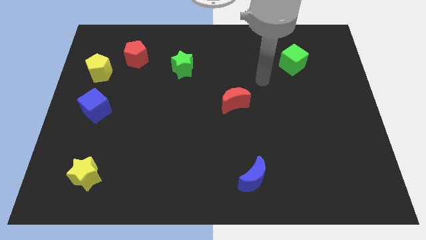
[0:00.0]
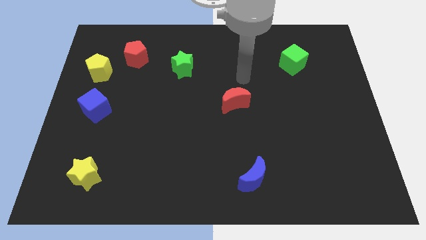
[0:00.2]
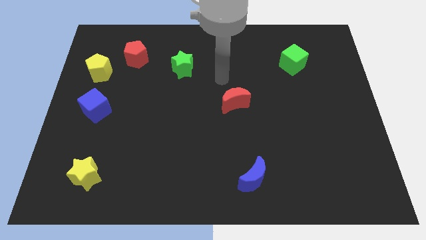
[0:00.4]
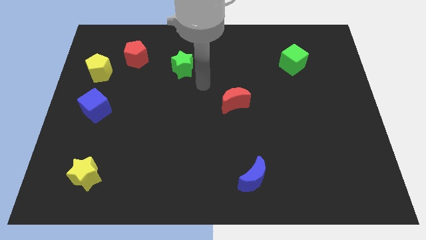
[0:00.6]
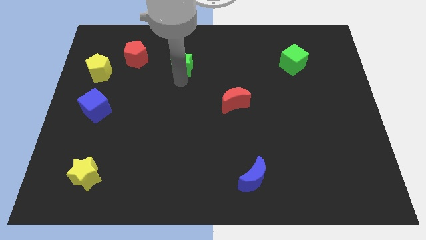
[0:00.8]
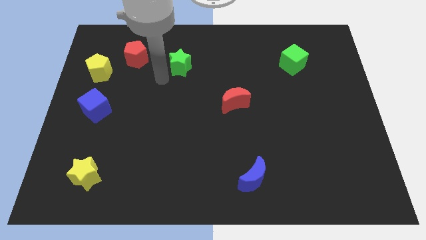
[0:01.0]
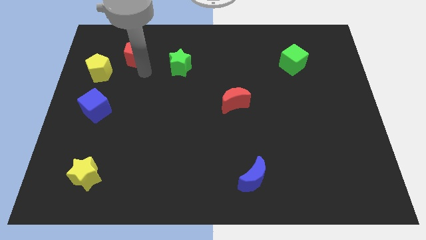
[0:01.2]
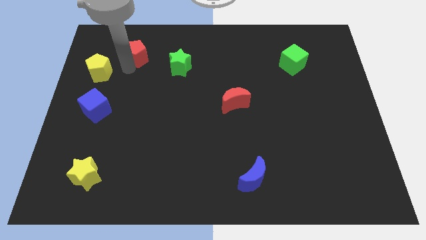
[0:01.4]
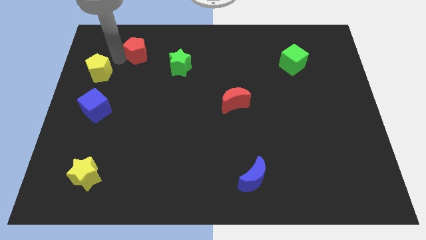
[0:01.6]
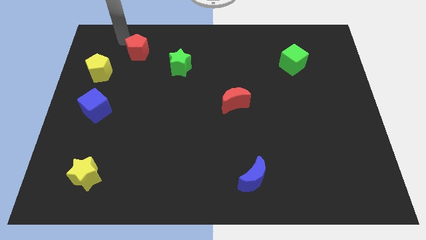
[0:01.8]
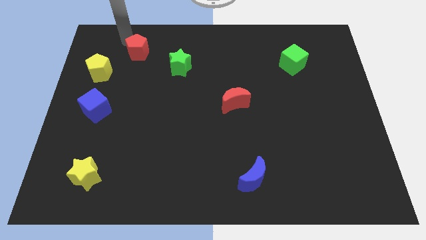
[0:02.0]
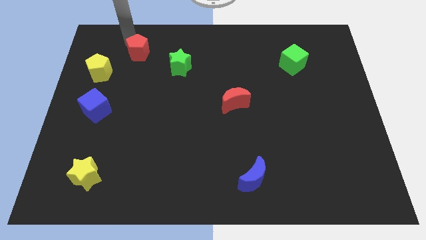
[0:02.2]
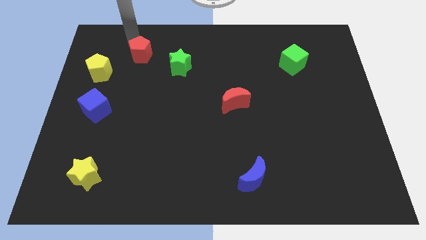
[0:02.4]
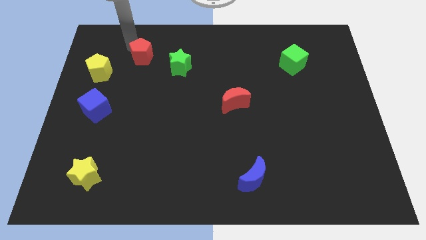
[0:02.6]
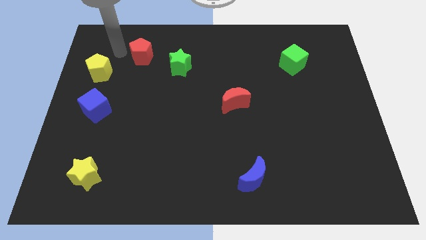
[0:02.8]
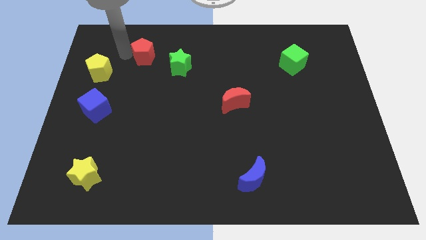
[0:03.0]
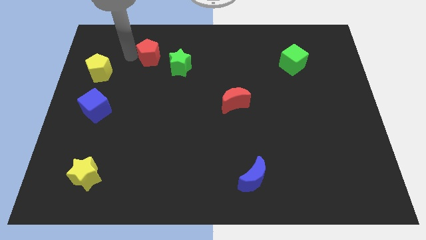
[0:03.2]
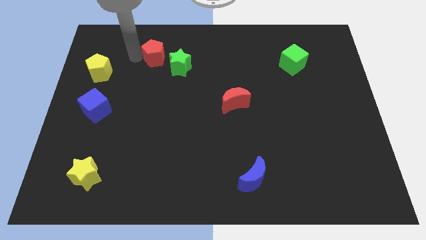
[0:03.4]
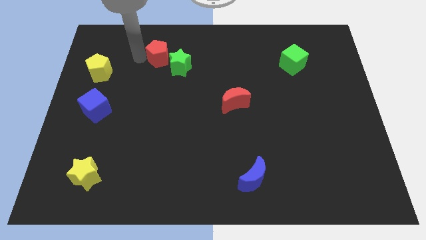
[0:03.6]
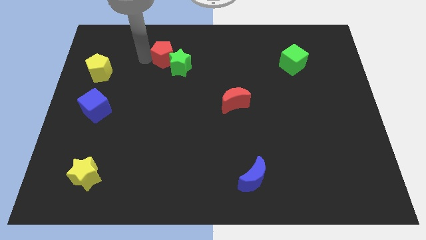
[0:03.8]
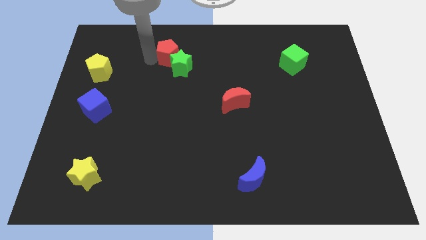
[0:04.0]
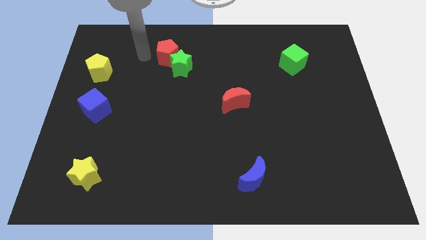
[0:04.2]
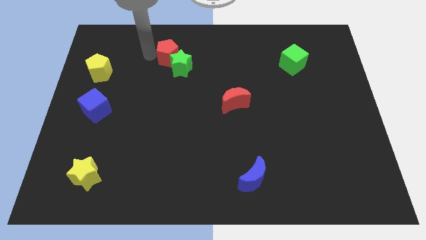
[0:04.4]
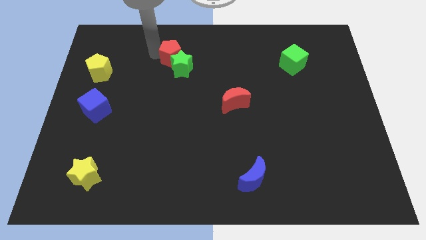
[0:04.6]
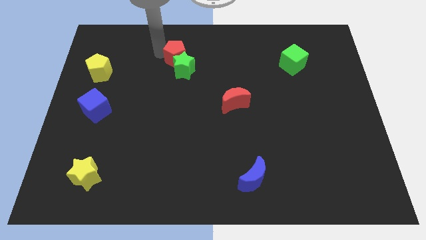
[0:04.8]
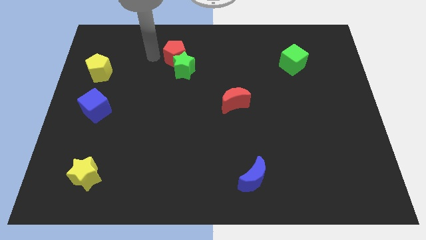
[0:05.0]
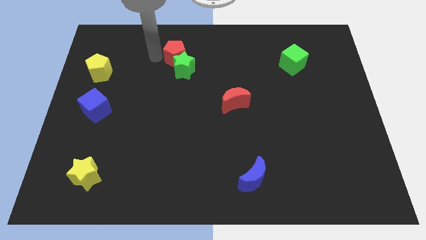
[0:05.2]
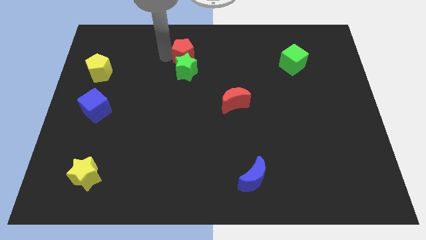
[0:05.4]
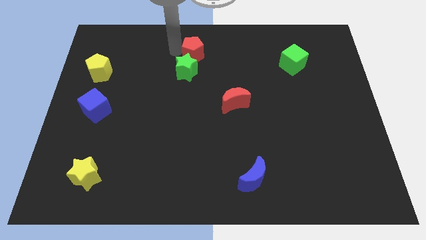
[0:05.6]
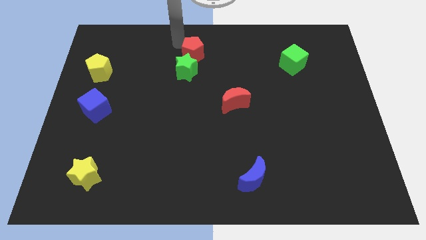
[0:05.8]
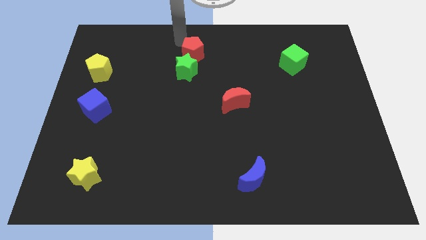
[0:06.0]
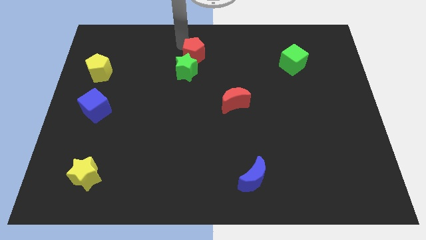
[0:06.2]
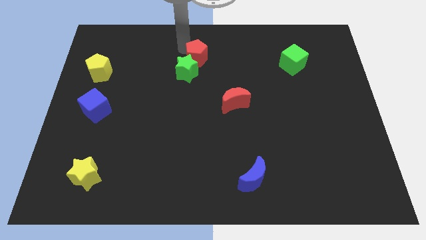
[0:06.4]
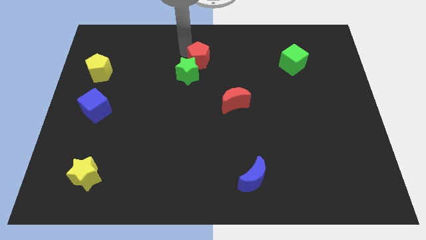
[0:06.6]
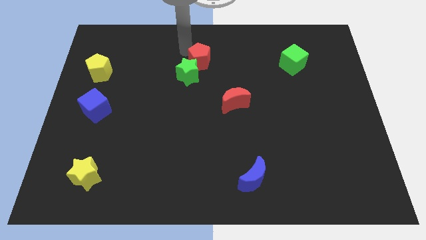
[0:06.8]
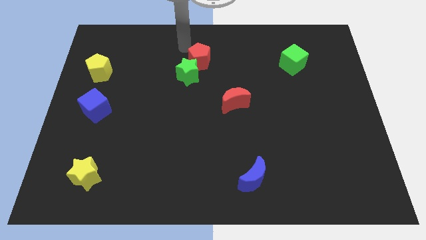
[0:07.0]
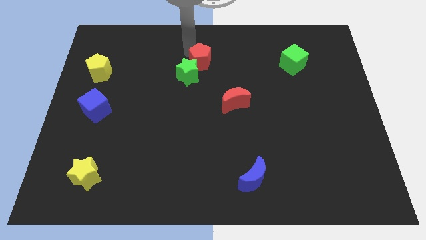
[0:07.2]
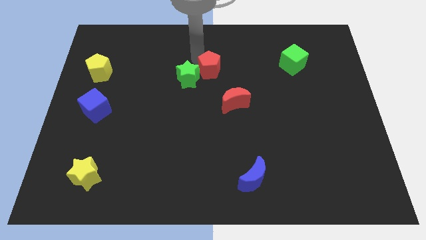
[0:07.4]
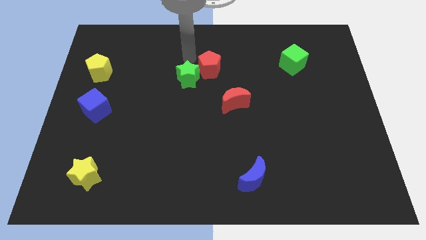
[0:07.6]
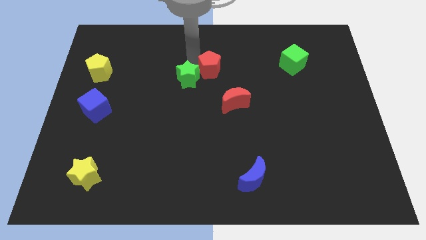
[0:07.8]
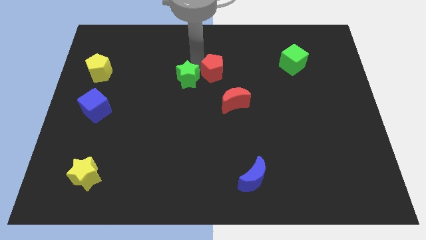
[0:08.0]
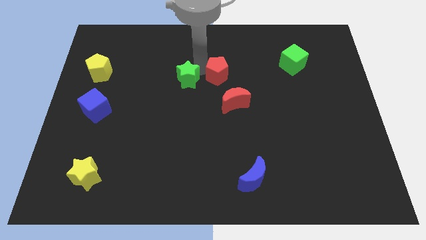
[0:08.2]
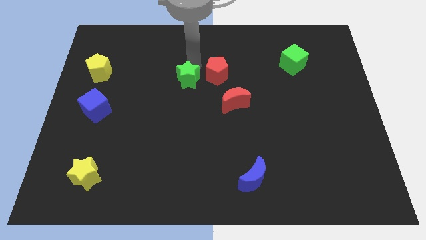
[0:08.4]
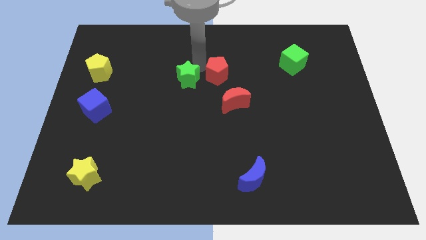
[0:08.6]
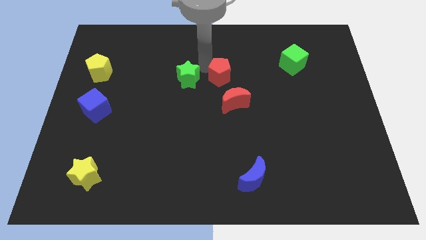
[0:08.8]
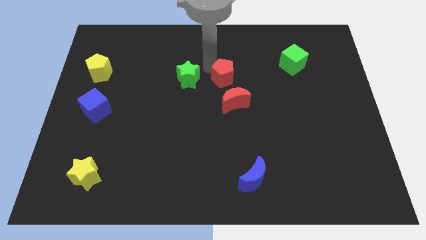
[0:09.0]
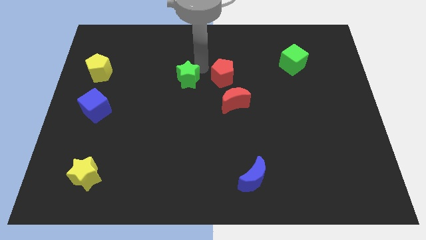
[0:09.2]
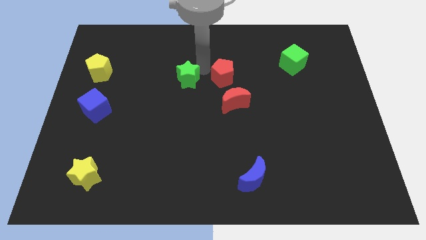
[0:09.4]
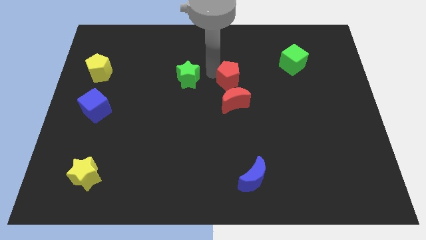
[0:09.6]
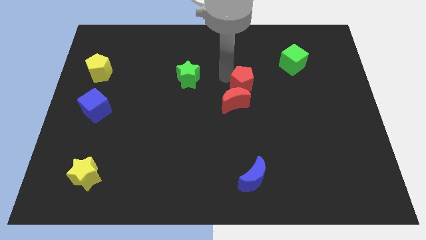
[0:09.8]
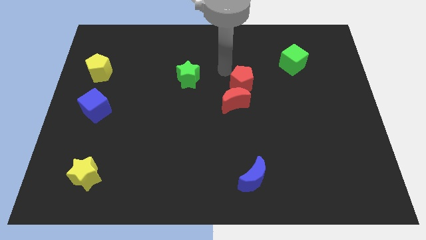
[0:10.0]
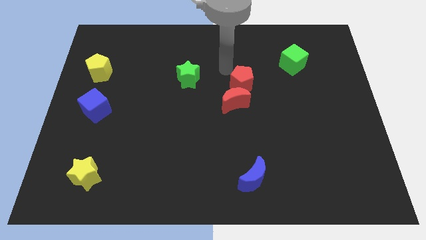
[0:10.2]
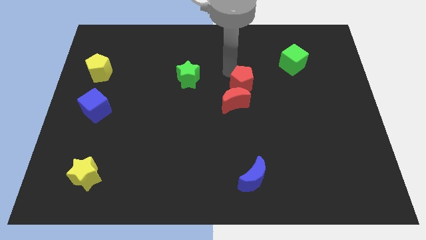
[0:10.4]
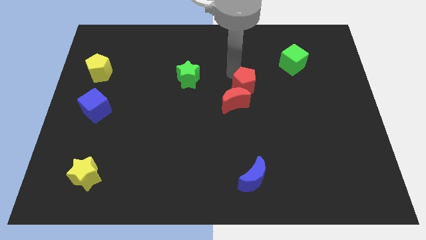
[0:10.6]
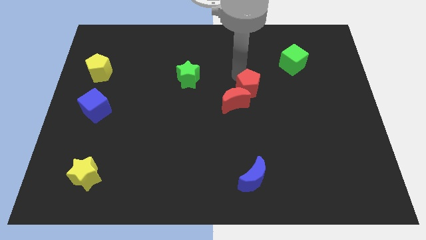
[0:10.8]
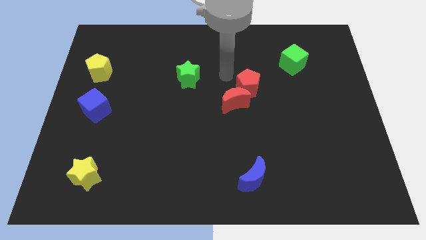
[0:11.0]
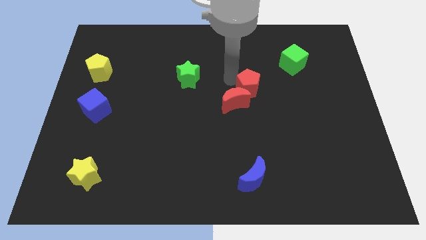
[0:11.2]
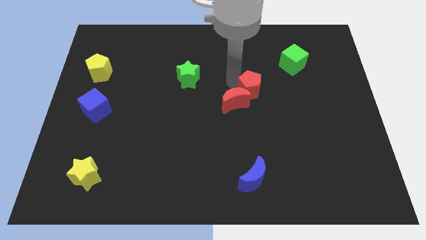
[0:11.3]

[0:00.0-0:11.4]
move the red pentagon to the right of the red moon

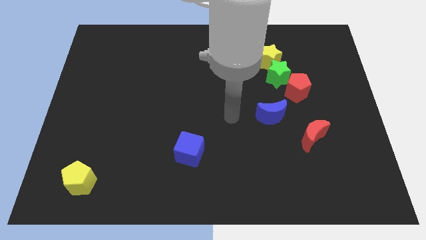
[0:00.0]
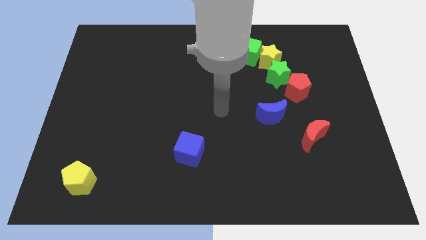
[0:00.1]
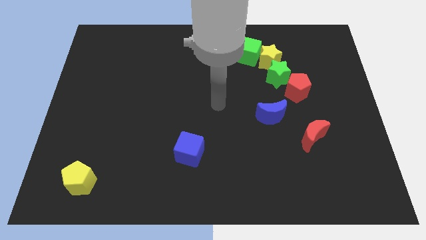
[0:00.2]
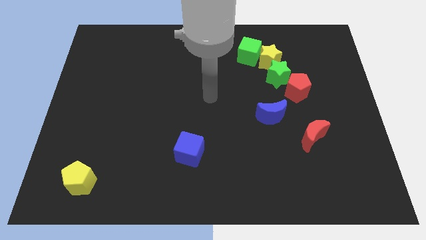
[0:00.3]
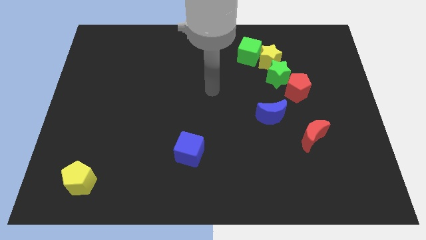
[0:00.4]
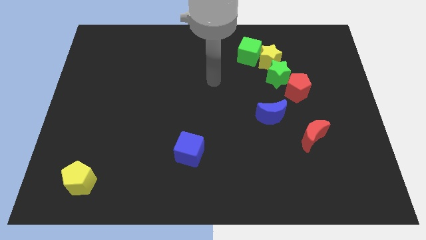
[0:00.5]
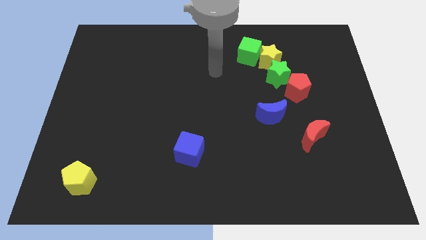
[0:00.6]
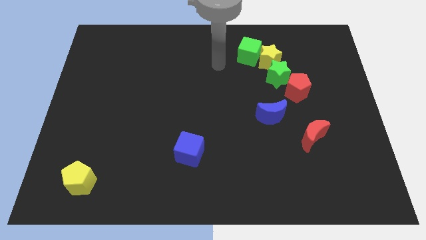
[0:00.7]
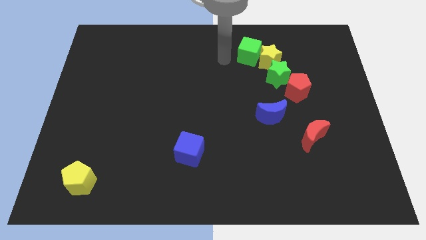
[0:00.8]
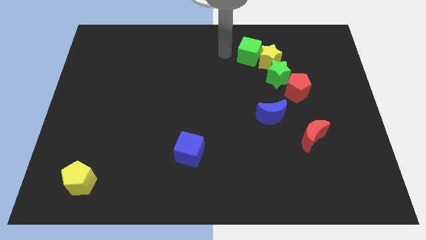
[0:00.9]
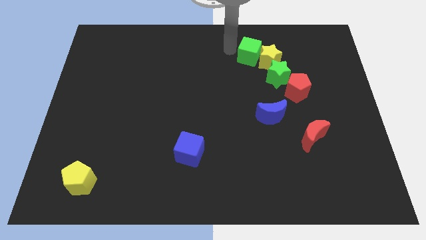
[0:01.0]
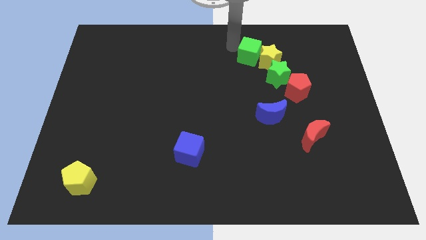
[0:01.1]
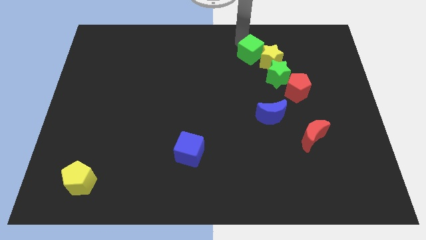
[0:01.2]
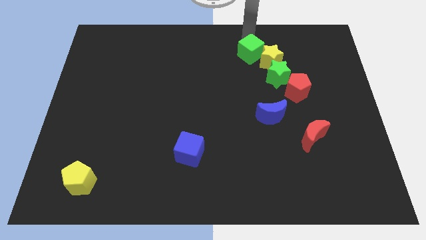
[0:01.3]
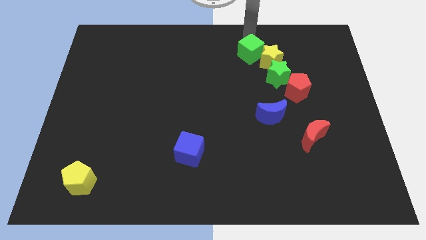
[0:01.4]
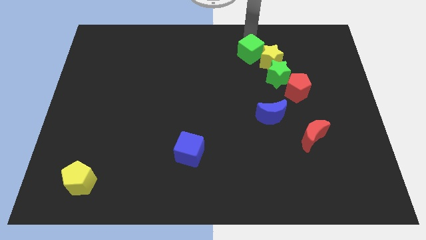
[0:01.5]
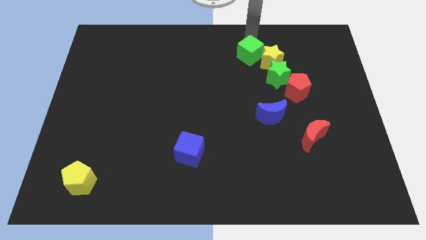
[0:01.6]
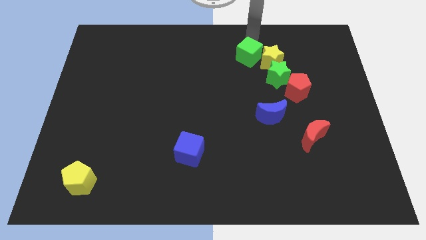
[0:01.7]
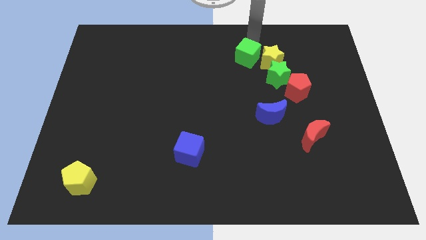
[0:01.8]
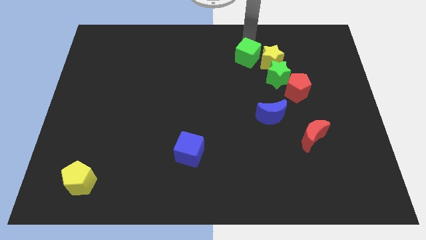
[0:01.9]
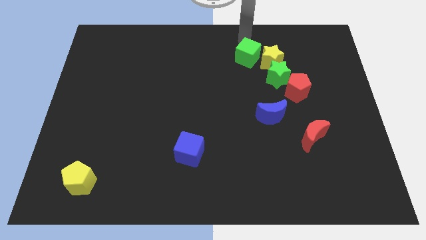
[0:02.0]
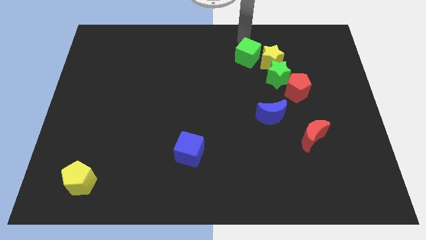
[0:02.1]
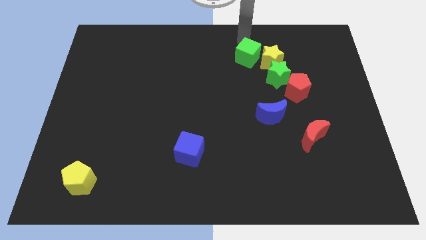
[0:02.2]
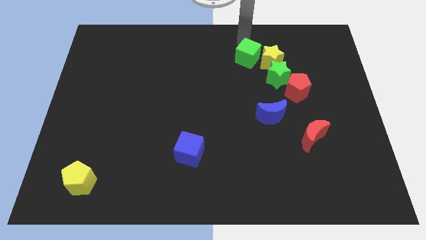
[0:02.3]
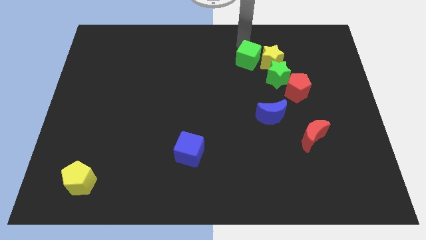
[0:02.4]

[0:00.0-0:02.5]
put the green cube to the bottom left of the yellow star
